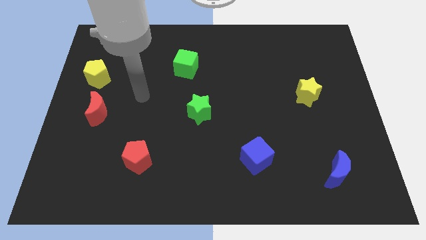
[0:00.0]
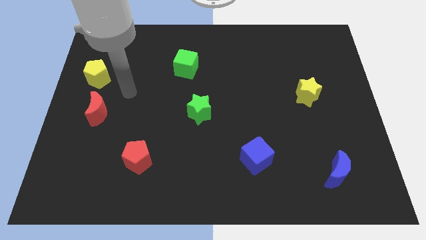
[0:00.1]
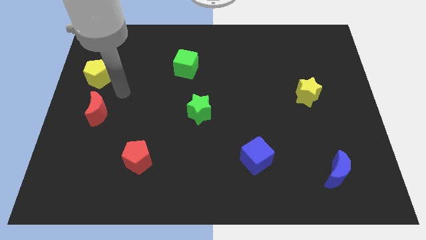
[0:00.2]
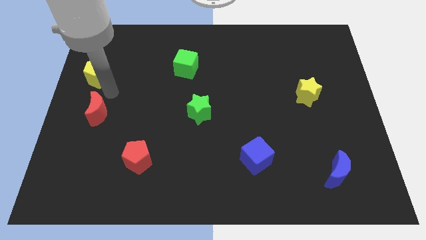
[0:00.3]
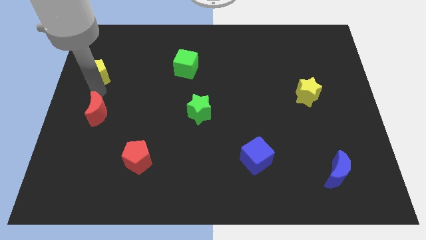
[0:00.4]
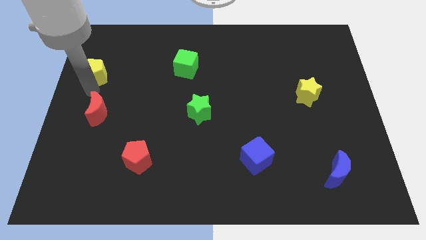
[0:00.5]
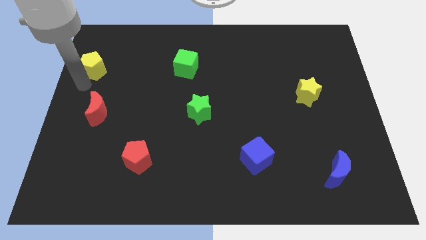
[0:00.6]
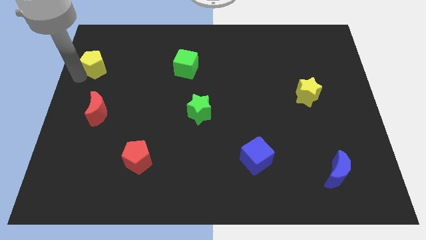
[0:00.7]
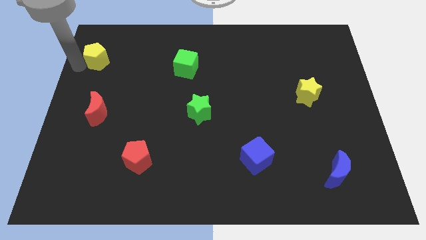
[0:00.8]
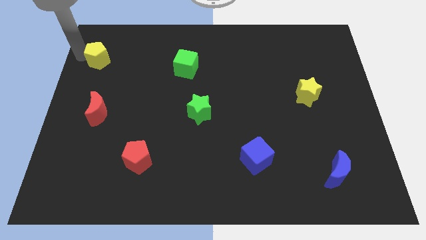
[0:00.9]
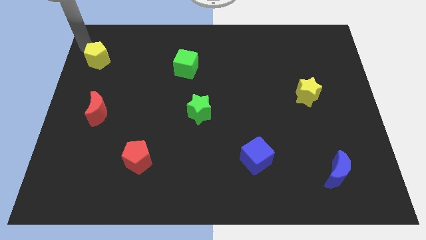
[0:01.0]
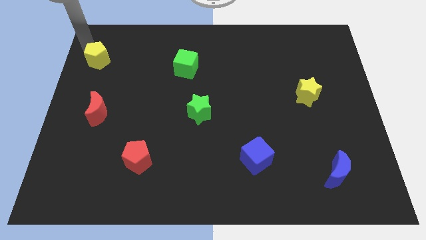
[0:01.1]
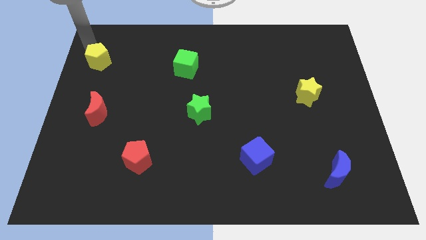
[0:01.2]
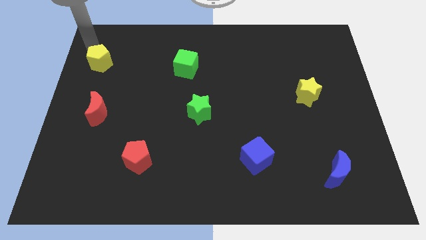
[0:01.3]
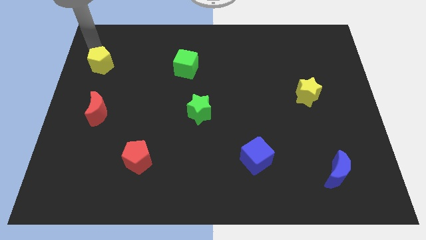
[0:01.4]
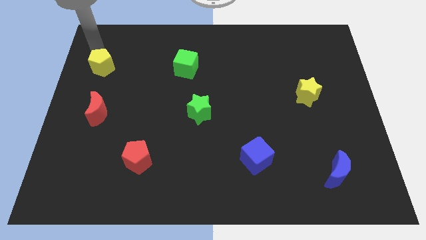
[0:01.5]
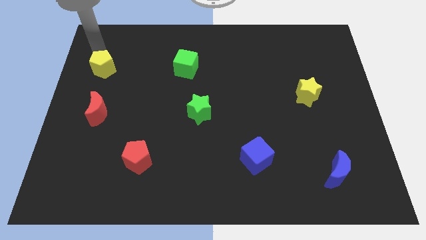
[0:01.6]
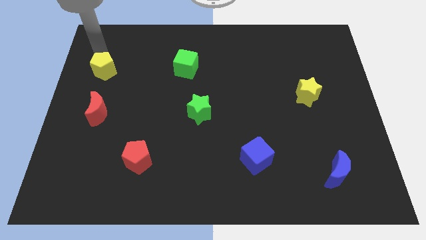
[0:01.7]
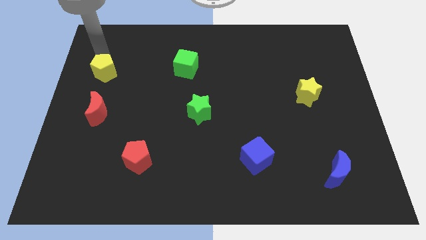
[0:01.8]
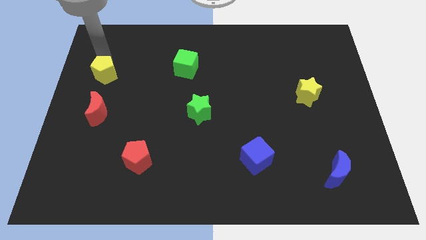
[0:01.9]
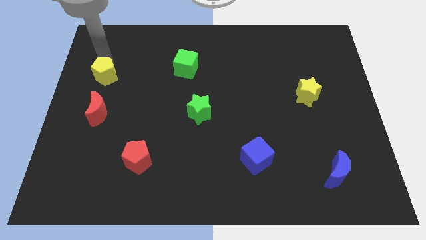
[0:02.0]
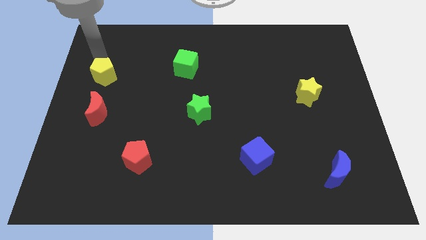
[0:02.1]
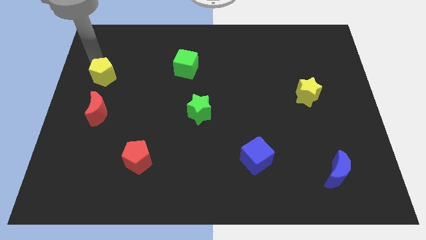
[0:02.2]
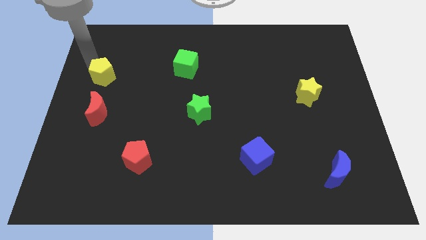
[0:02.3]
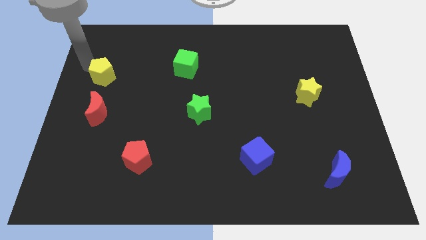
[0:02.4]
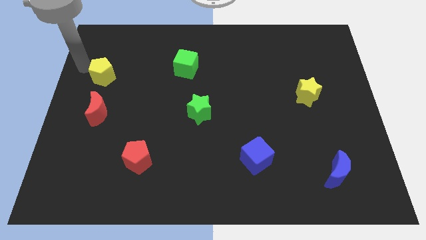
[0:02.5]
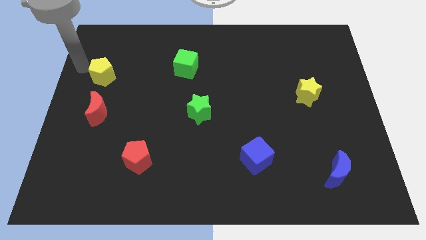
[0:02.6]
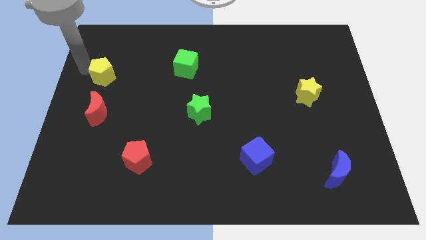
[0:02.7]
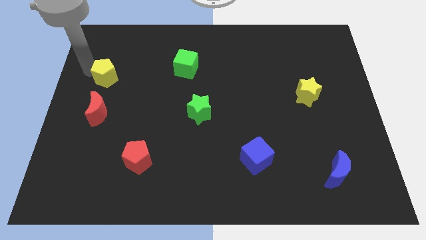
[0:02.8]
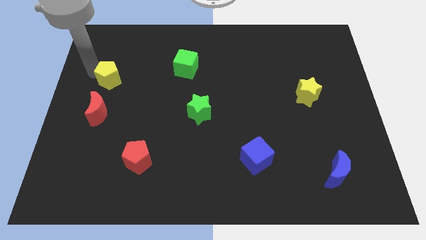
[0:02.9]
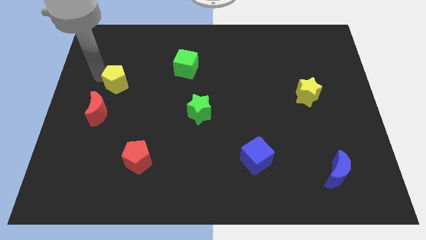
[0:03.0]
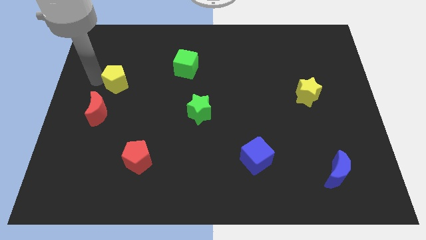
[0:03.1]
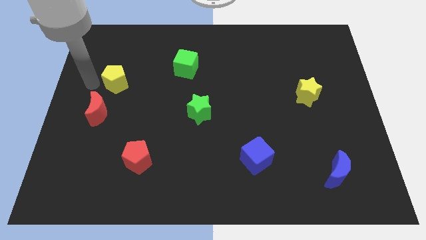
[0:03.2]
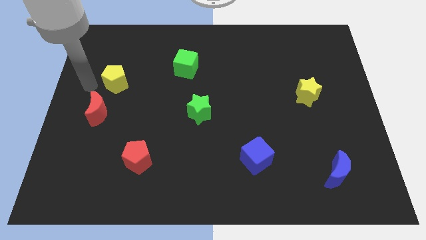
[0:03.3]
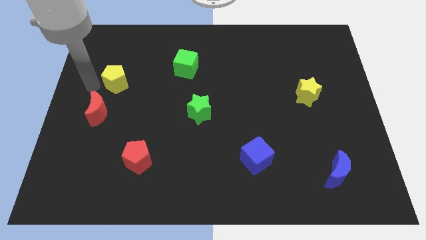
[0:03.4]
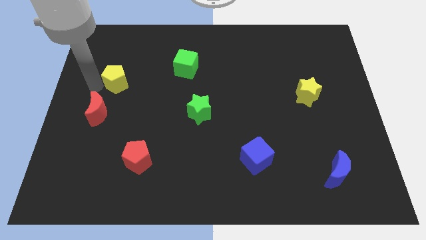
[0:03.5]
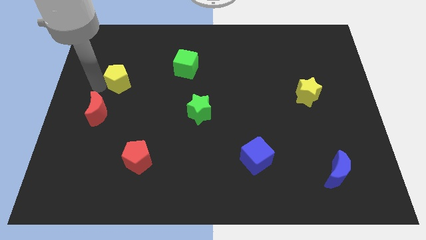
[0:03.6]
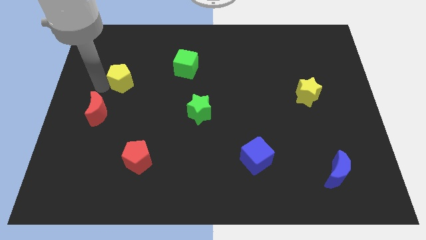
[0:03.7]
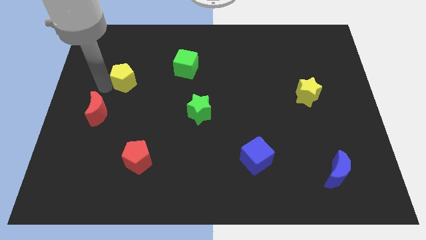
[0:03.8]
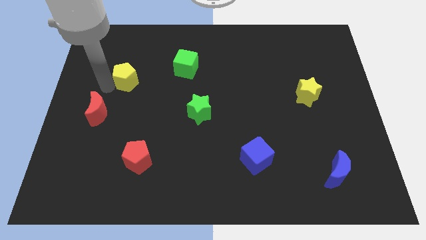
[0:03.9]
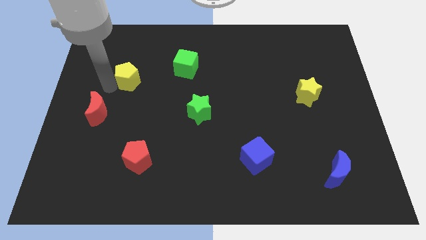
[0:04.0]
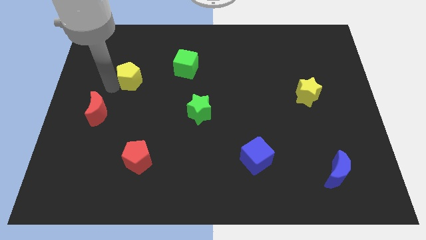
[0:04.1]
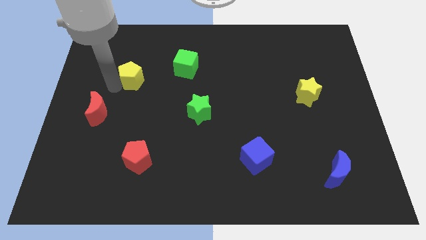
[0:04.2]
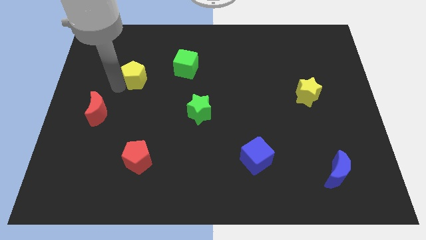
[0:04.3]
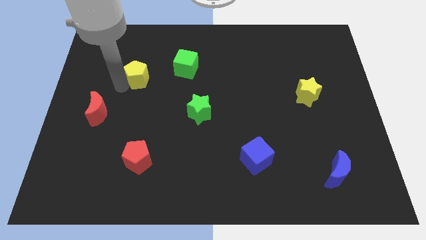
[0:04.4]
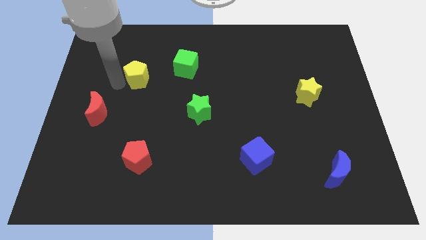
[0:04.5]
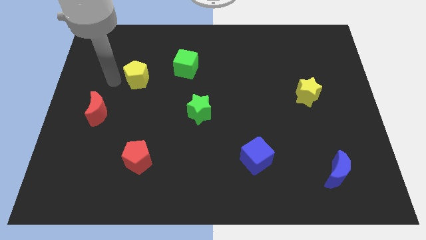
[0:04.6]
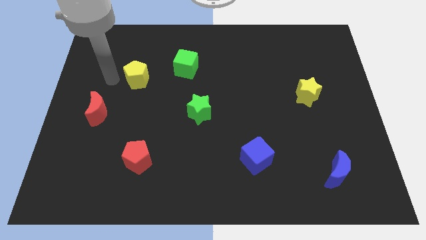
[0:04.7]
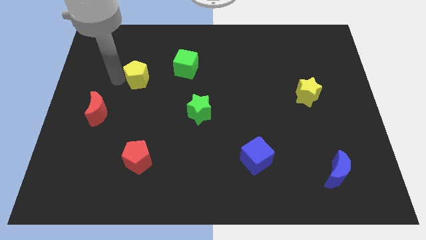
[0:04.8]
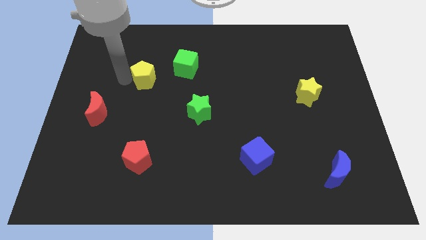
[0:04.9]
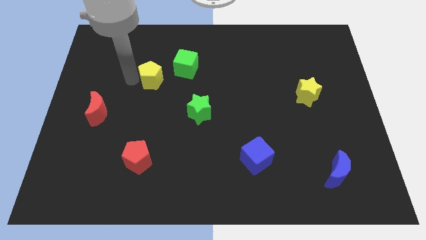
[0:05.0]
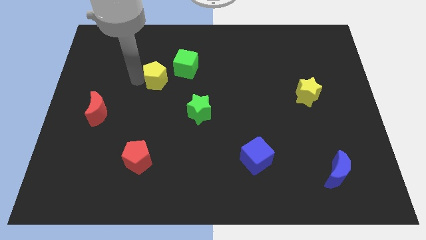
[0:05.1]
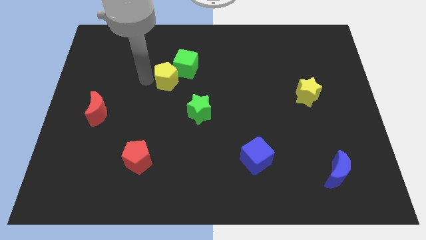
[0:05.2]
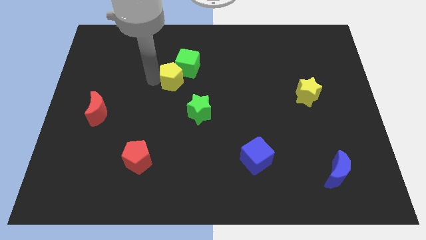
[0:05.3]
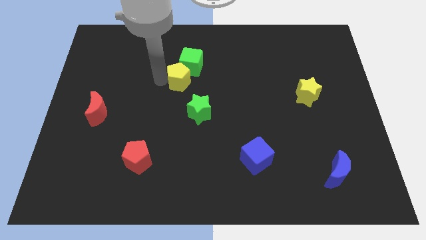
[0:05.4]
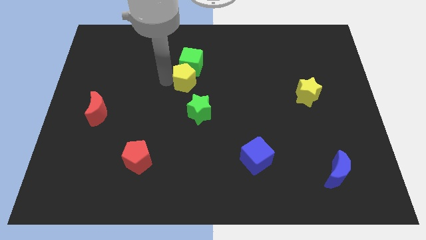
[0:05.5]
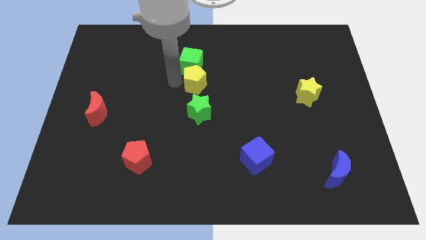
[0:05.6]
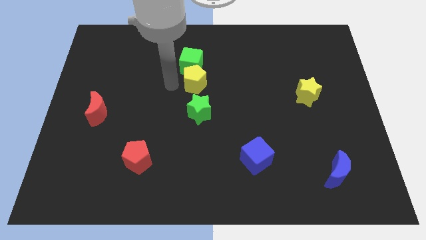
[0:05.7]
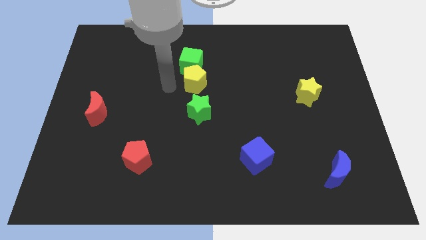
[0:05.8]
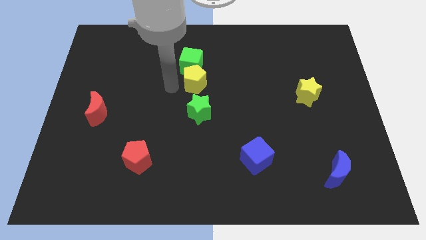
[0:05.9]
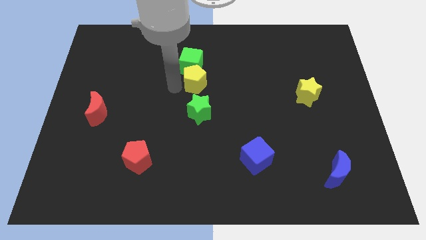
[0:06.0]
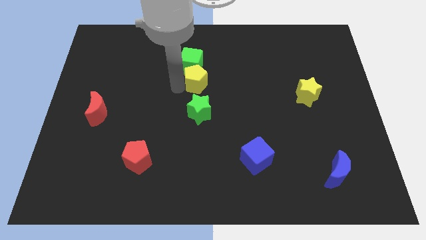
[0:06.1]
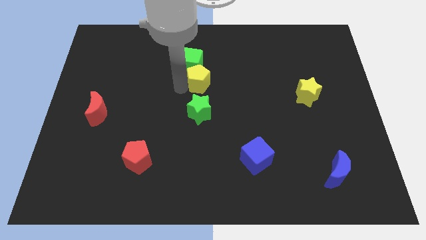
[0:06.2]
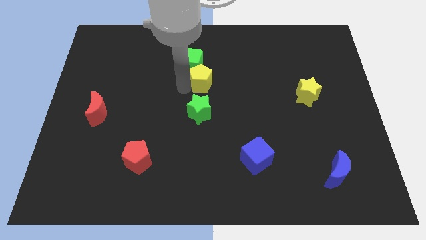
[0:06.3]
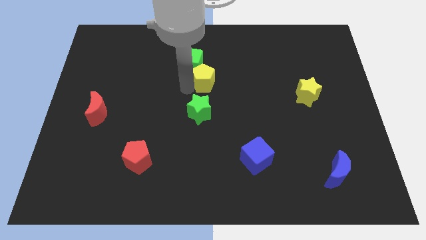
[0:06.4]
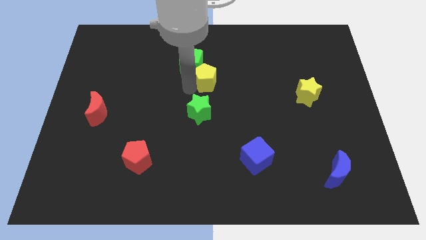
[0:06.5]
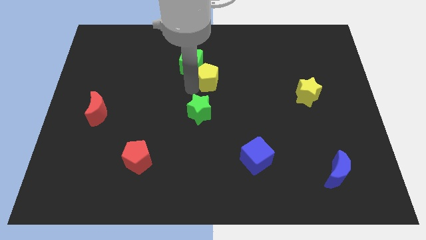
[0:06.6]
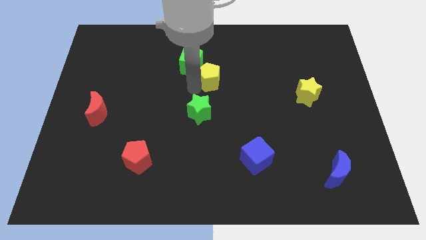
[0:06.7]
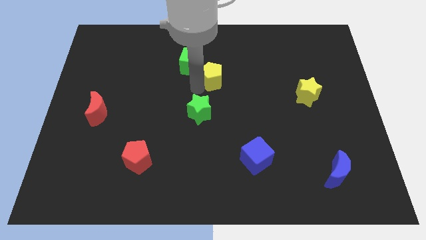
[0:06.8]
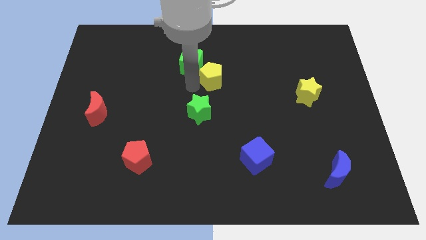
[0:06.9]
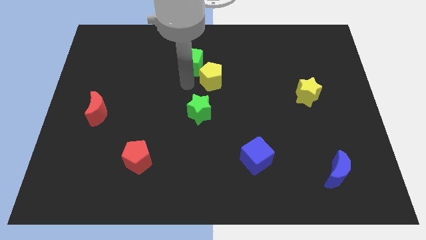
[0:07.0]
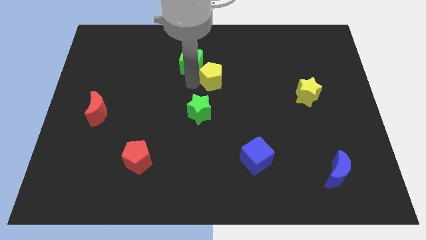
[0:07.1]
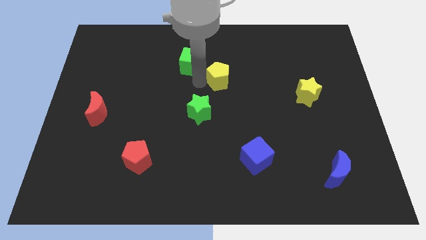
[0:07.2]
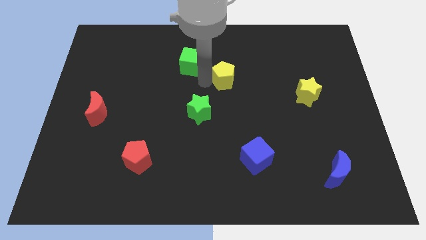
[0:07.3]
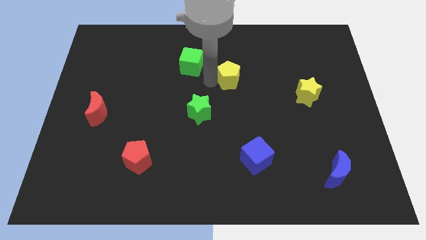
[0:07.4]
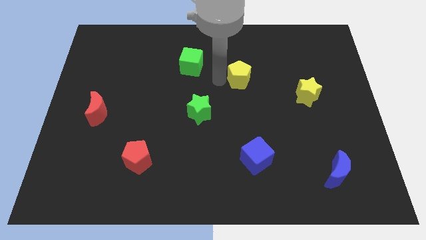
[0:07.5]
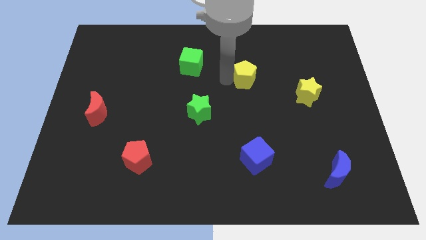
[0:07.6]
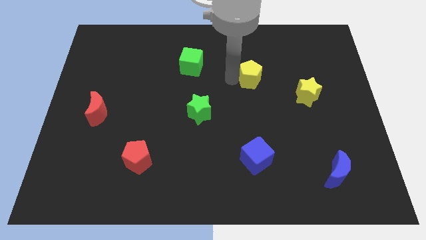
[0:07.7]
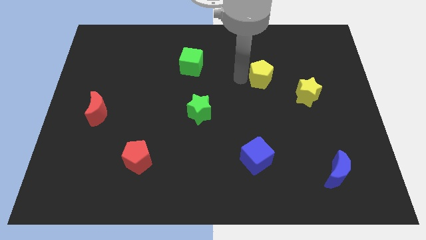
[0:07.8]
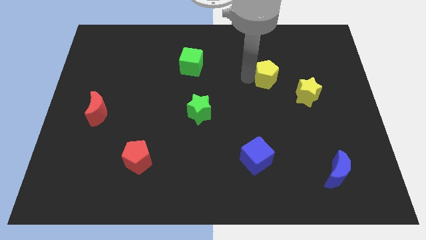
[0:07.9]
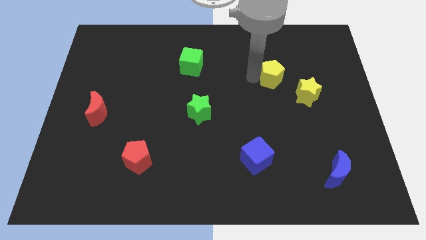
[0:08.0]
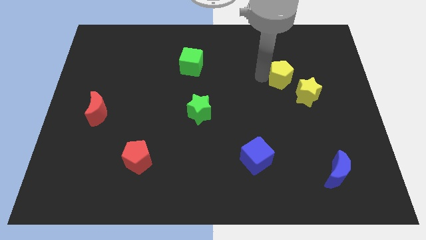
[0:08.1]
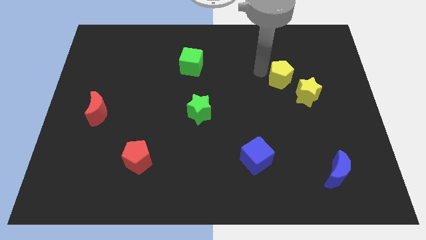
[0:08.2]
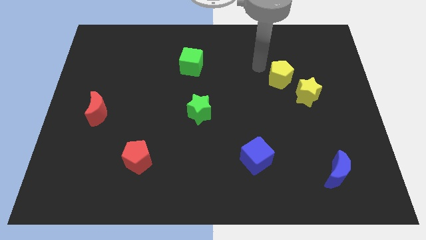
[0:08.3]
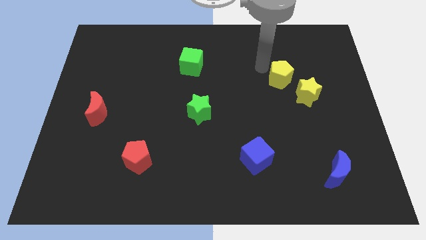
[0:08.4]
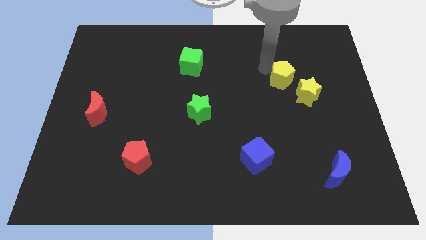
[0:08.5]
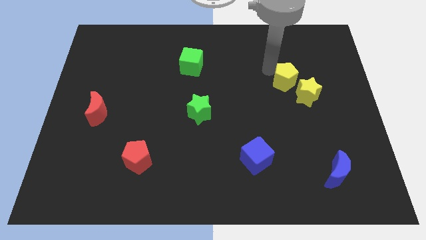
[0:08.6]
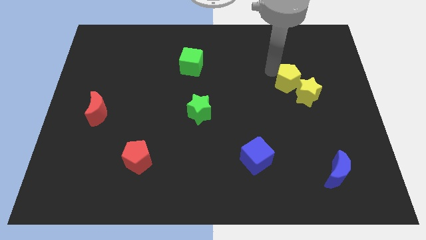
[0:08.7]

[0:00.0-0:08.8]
push the yellow pentagon towards the yellow star
